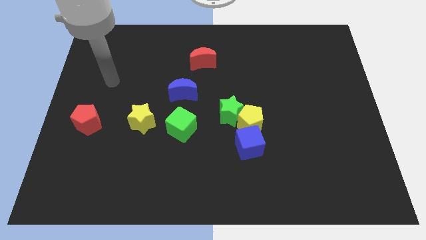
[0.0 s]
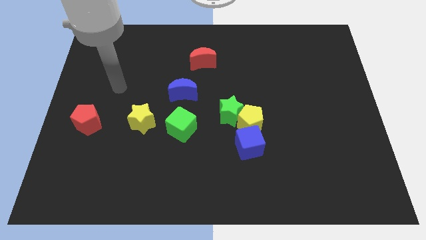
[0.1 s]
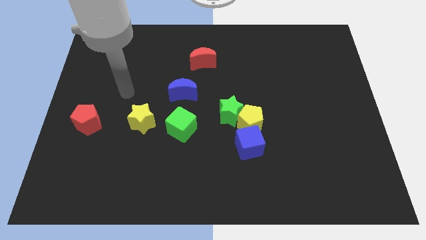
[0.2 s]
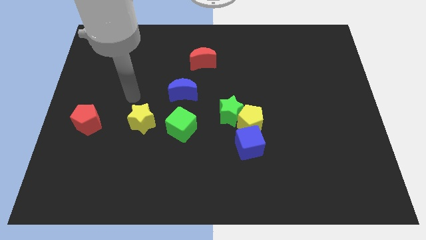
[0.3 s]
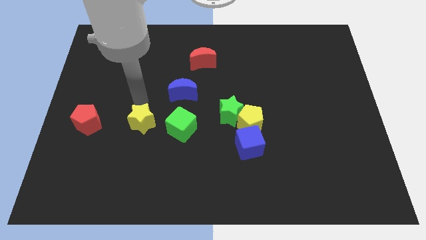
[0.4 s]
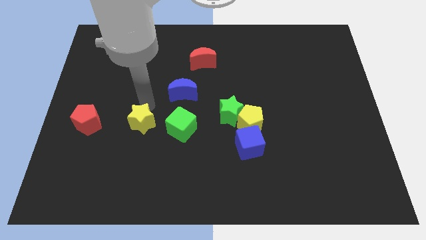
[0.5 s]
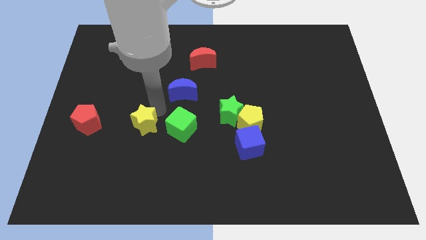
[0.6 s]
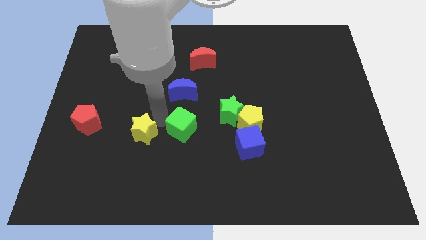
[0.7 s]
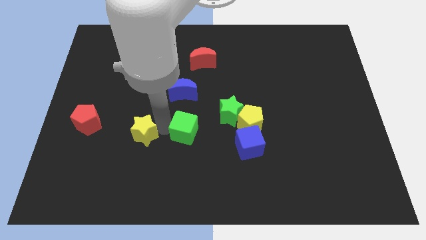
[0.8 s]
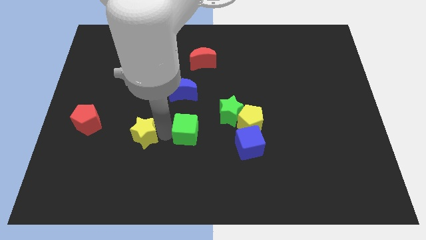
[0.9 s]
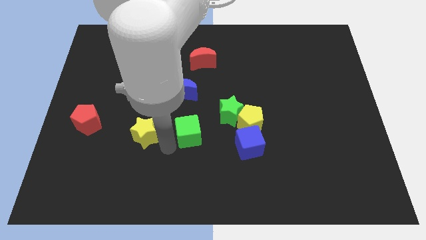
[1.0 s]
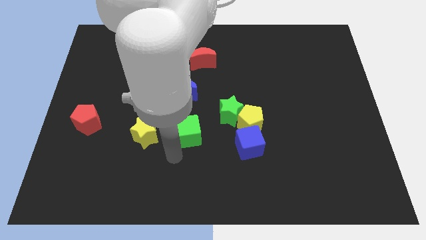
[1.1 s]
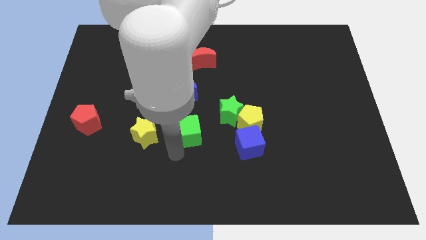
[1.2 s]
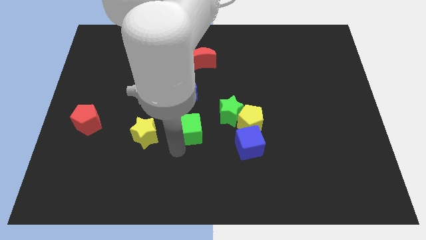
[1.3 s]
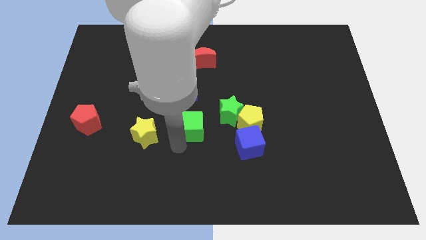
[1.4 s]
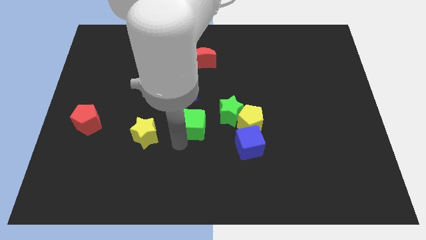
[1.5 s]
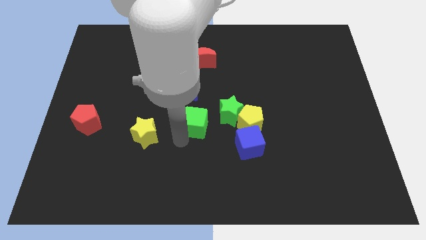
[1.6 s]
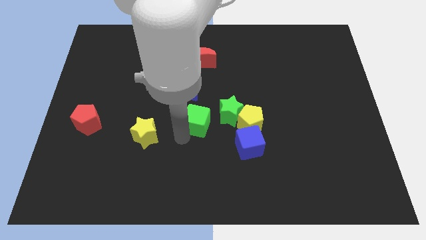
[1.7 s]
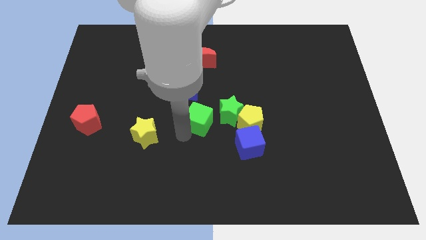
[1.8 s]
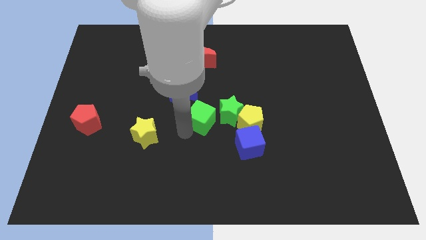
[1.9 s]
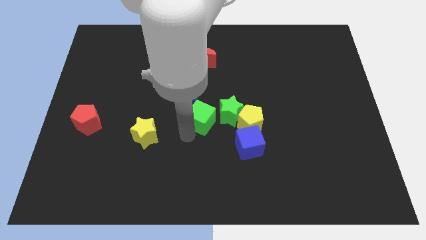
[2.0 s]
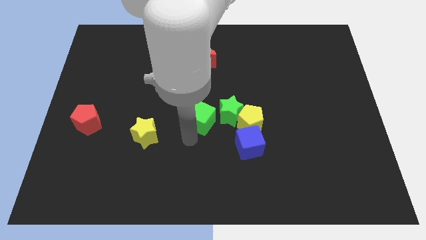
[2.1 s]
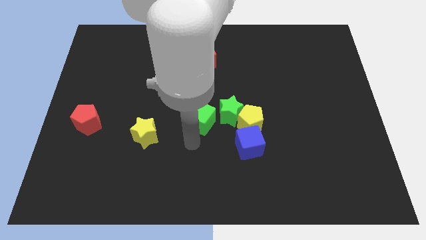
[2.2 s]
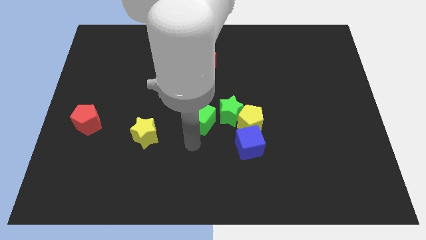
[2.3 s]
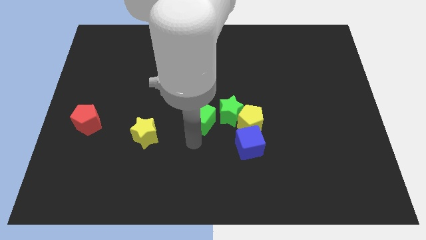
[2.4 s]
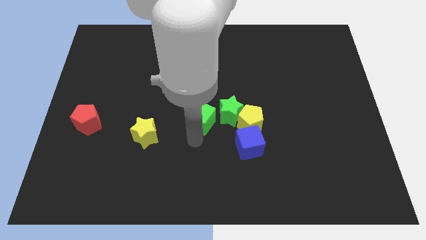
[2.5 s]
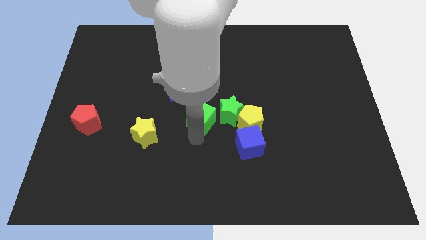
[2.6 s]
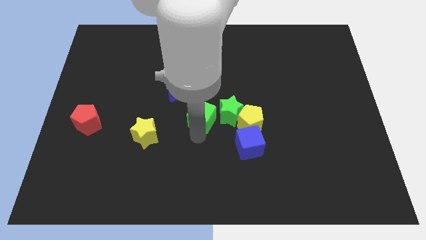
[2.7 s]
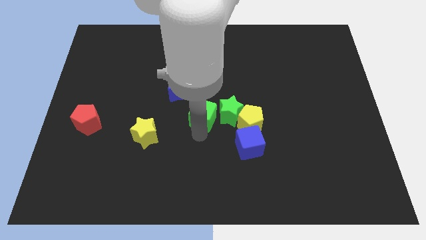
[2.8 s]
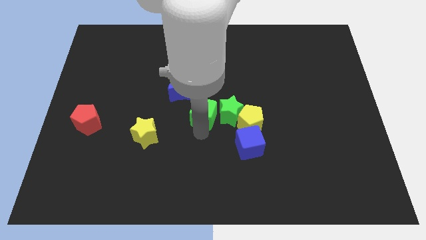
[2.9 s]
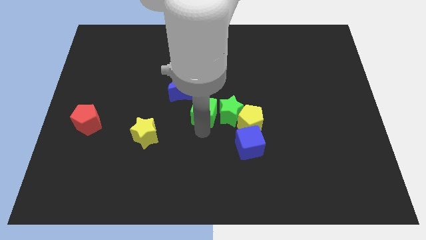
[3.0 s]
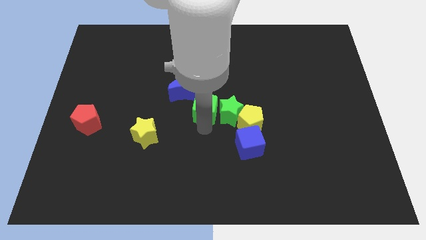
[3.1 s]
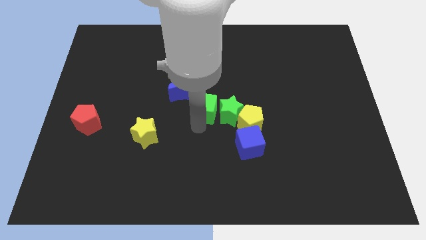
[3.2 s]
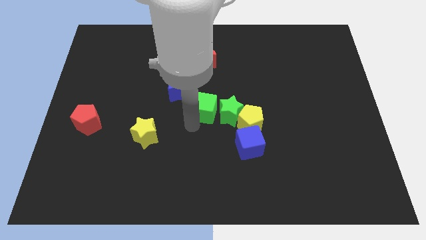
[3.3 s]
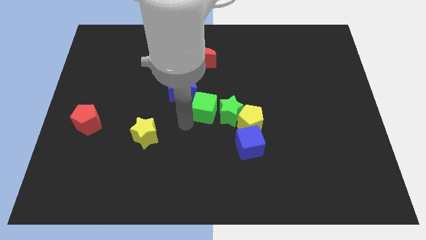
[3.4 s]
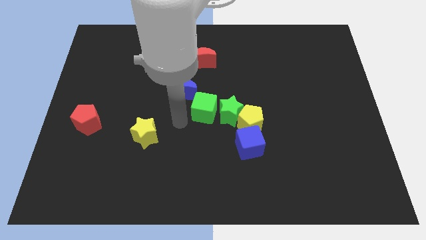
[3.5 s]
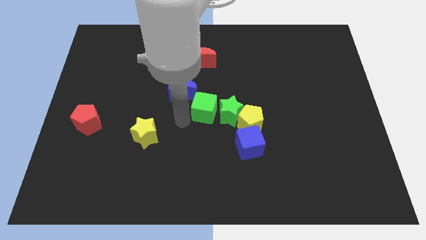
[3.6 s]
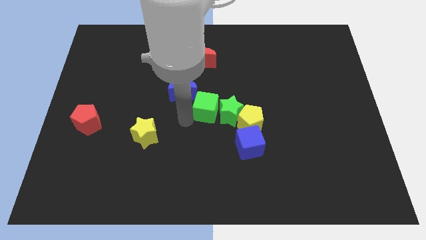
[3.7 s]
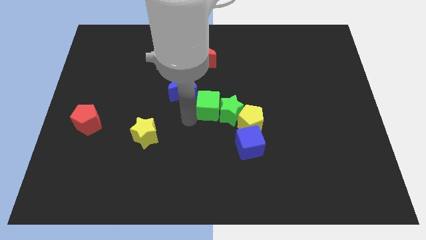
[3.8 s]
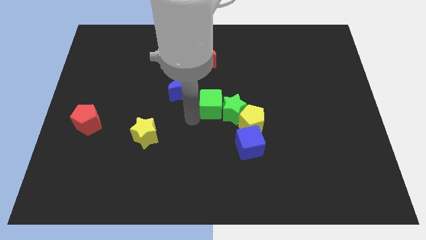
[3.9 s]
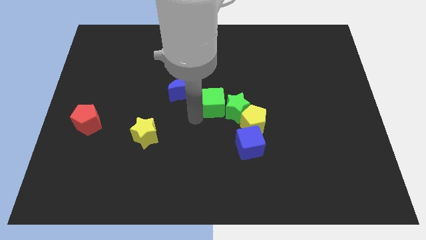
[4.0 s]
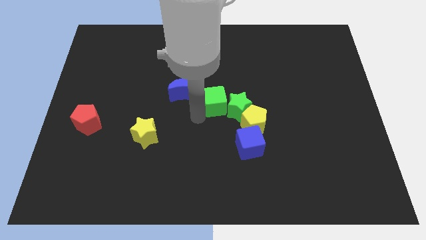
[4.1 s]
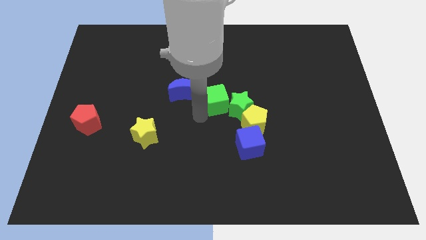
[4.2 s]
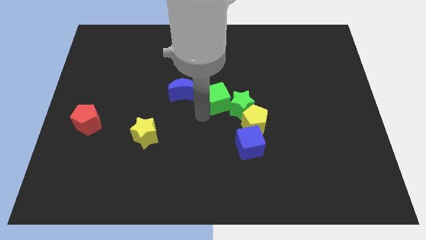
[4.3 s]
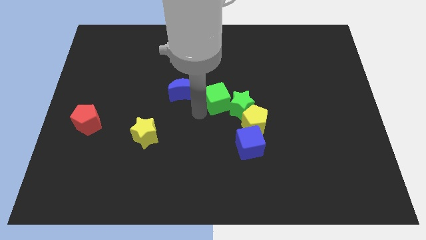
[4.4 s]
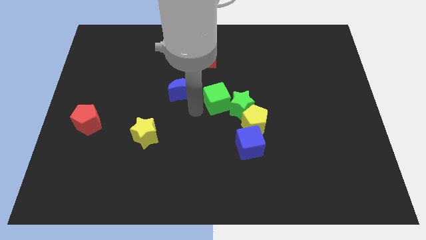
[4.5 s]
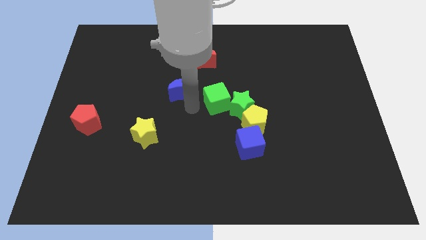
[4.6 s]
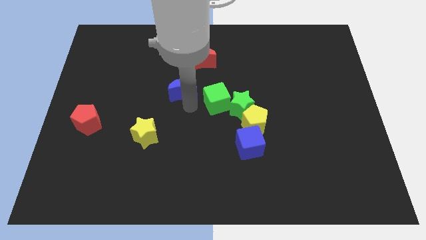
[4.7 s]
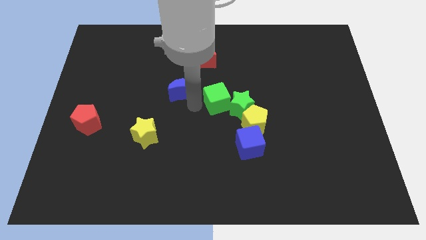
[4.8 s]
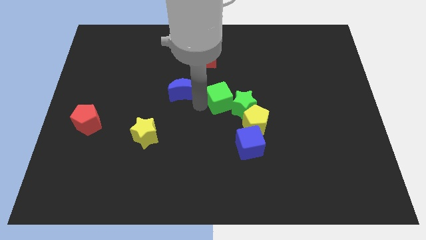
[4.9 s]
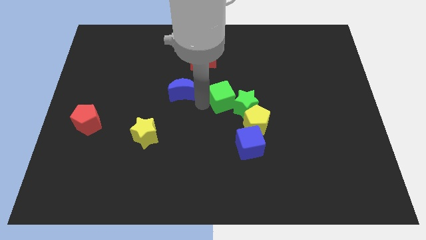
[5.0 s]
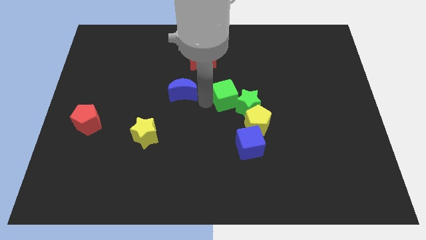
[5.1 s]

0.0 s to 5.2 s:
move the green cube right a bit

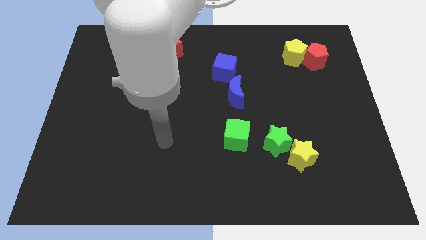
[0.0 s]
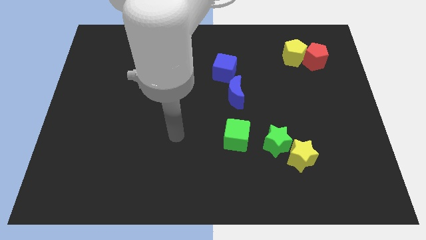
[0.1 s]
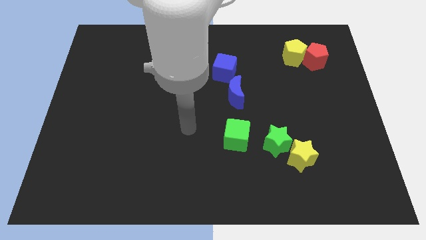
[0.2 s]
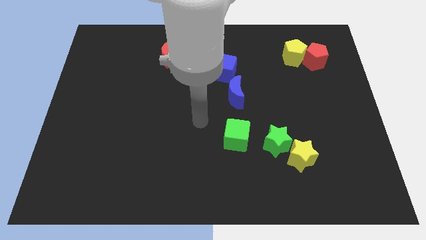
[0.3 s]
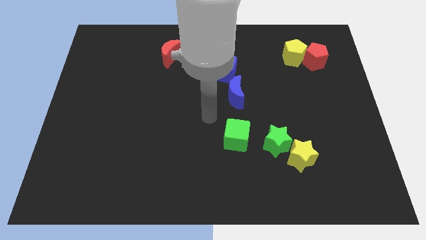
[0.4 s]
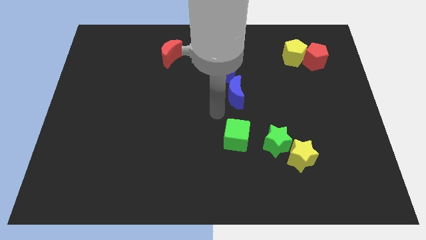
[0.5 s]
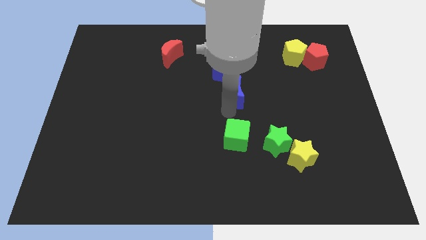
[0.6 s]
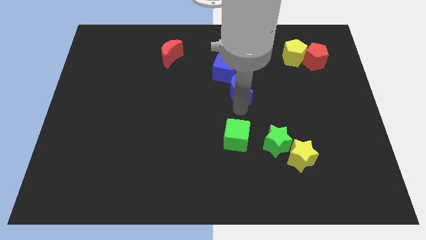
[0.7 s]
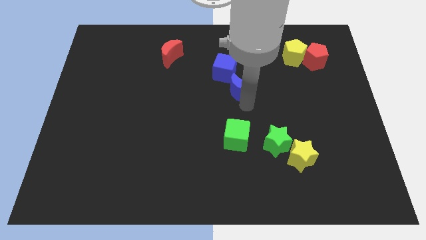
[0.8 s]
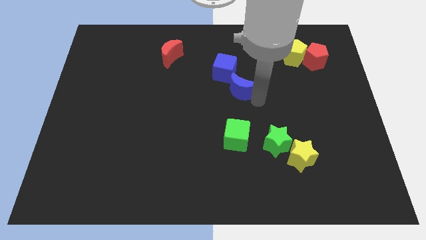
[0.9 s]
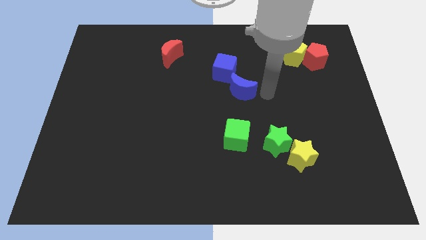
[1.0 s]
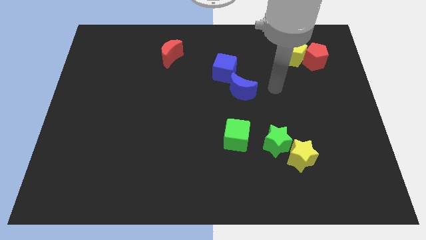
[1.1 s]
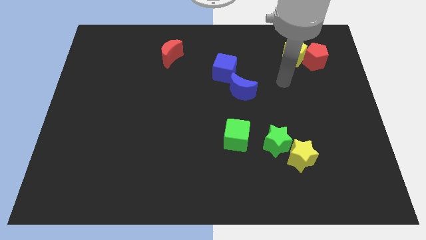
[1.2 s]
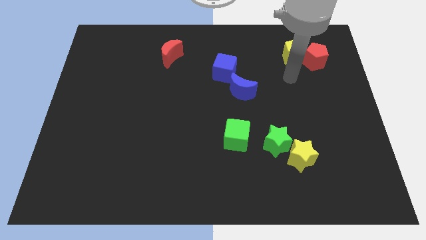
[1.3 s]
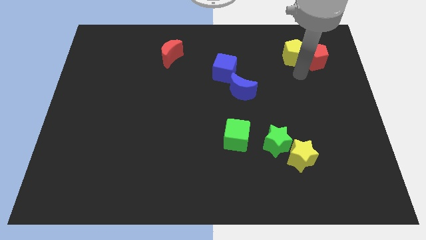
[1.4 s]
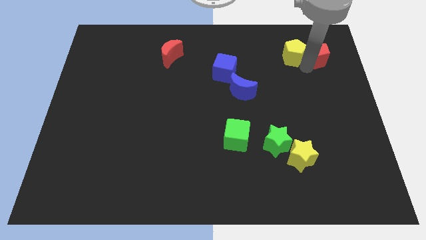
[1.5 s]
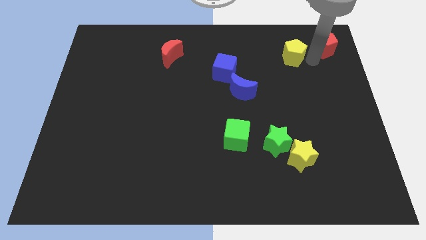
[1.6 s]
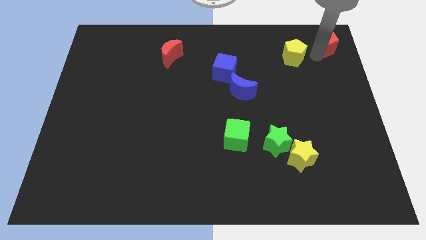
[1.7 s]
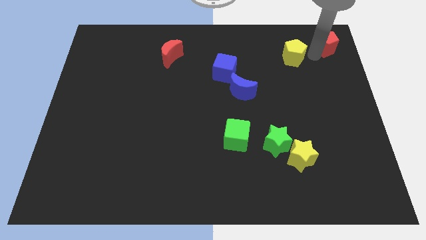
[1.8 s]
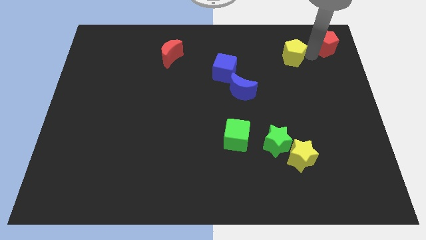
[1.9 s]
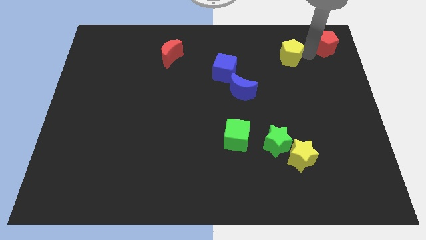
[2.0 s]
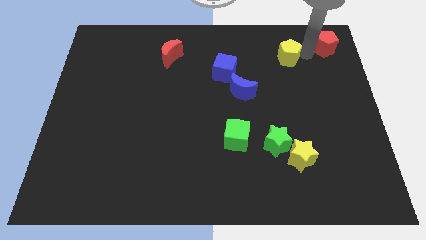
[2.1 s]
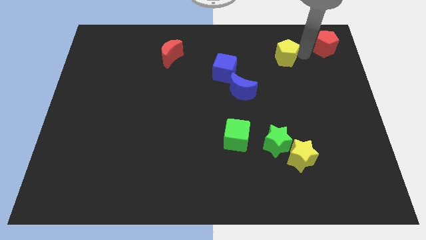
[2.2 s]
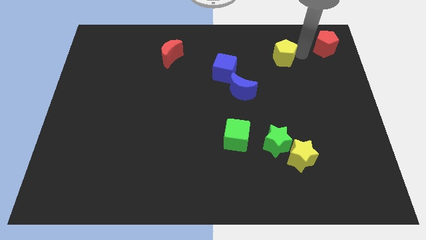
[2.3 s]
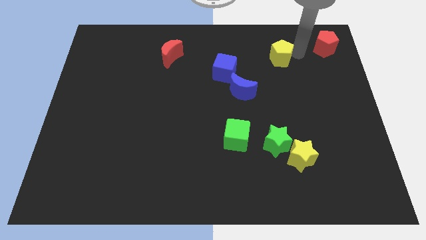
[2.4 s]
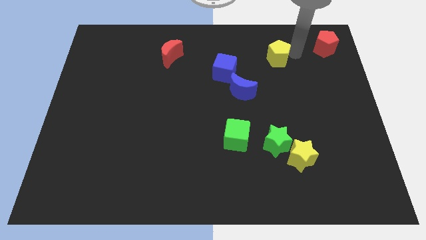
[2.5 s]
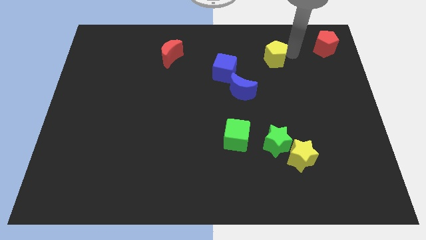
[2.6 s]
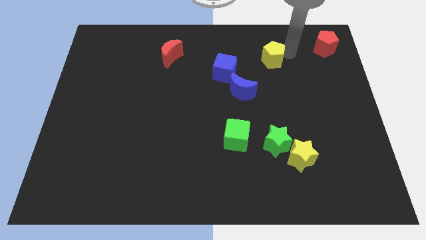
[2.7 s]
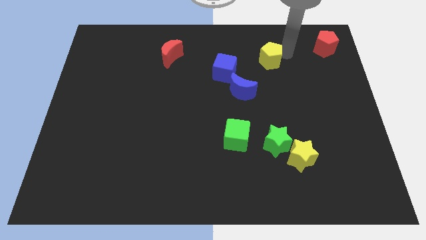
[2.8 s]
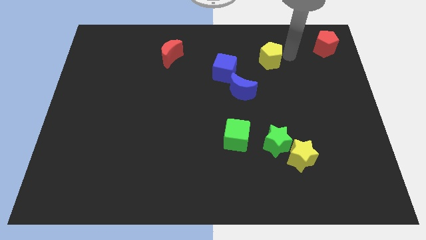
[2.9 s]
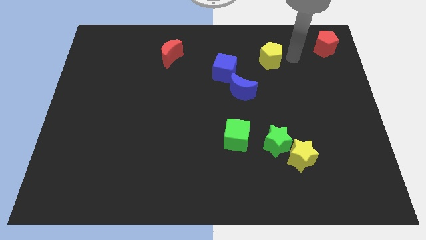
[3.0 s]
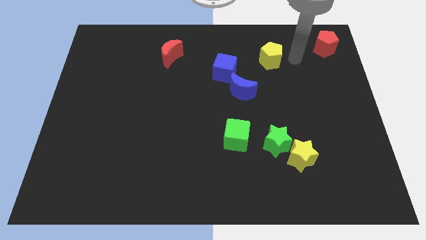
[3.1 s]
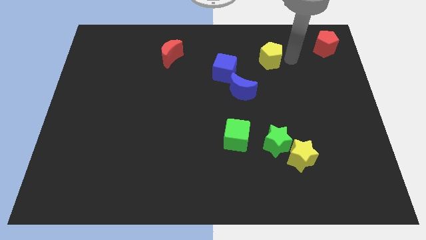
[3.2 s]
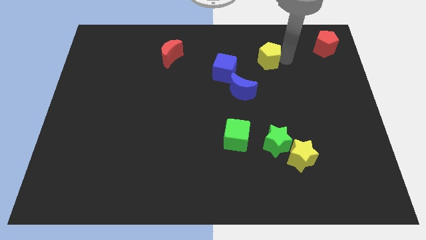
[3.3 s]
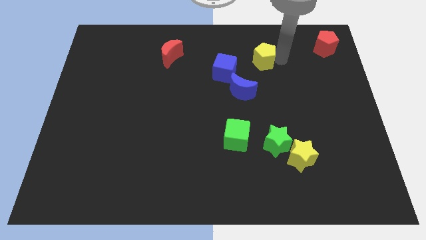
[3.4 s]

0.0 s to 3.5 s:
slide the yellow pentagon a little to the left
